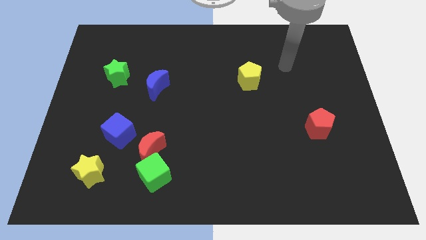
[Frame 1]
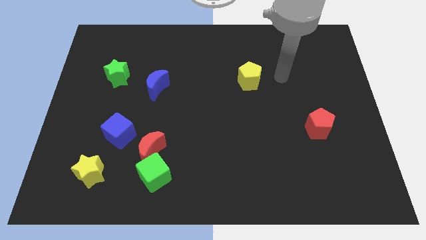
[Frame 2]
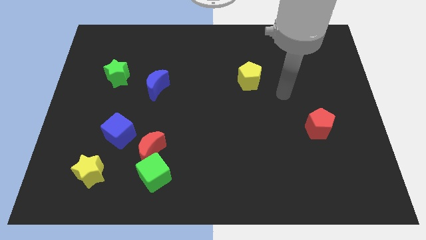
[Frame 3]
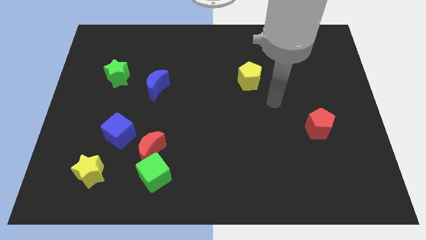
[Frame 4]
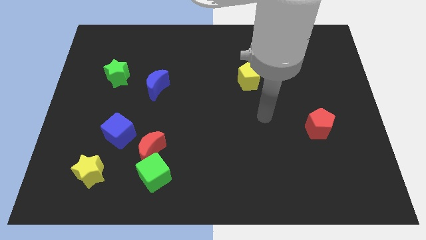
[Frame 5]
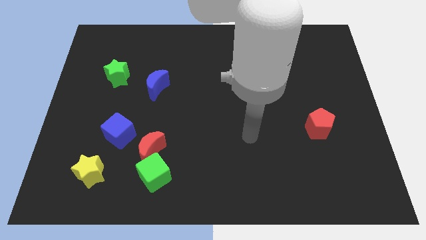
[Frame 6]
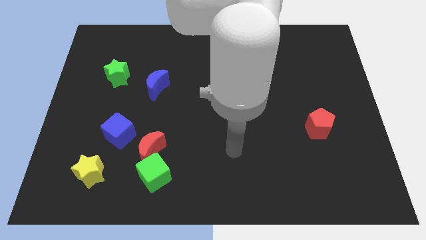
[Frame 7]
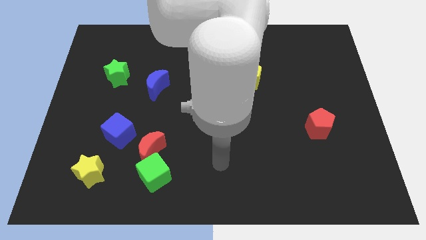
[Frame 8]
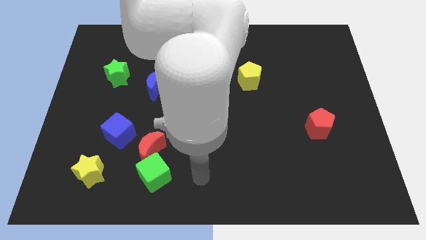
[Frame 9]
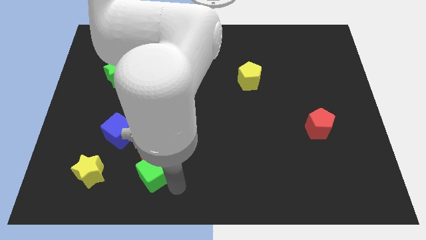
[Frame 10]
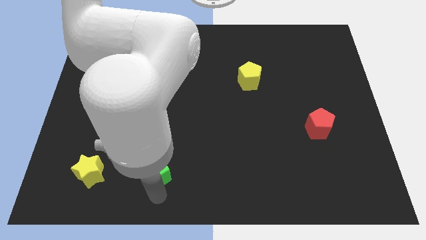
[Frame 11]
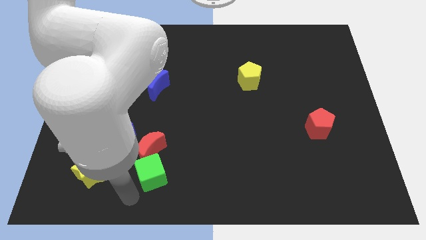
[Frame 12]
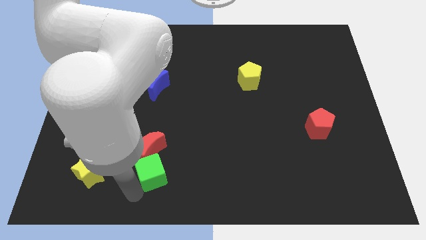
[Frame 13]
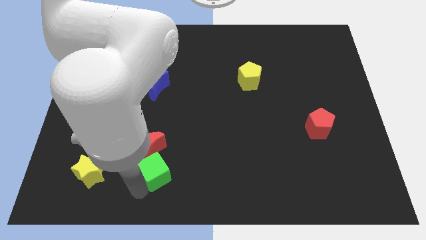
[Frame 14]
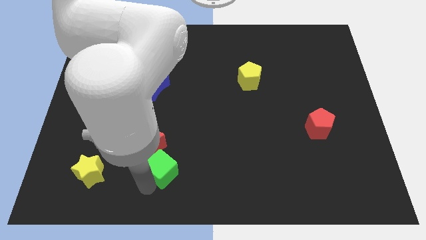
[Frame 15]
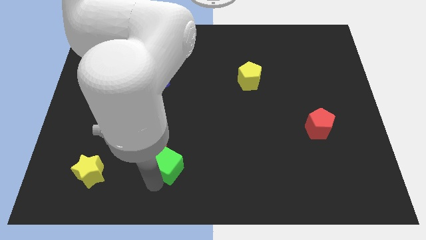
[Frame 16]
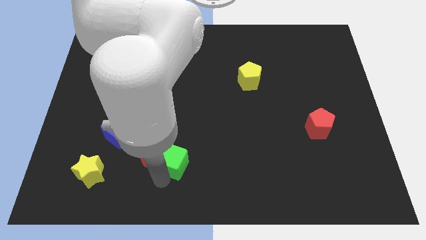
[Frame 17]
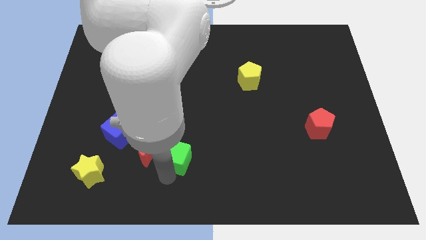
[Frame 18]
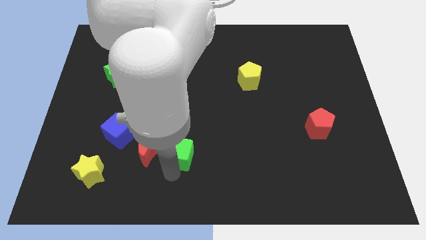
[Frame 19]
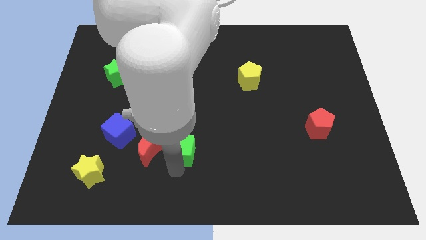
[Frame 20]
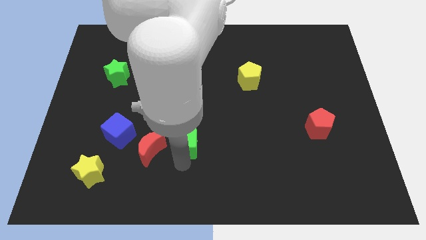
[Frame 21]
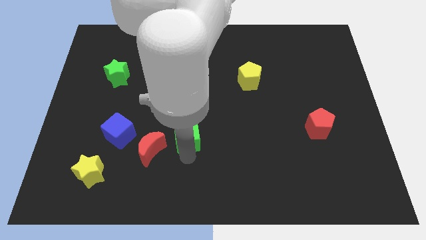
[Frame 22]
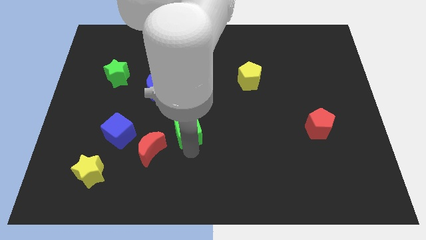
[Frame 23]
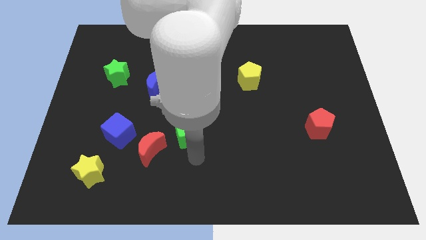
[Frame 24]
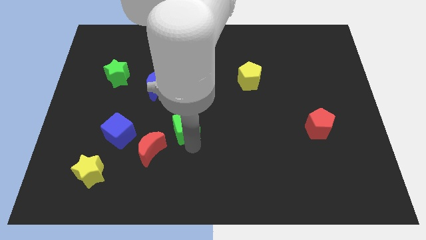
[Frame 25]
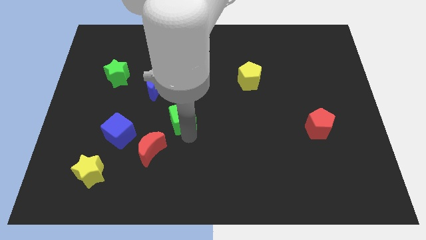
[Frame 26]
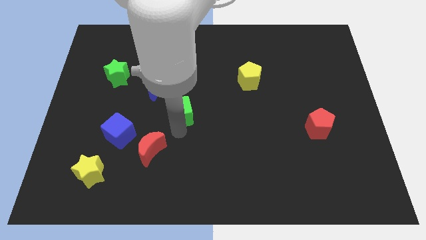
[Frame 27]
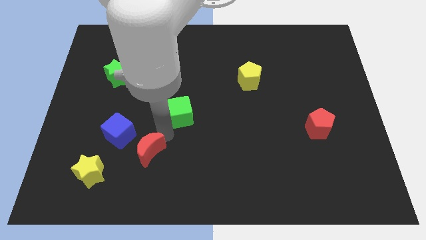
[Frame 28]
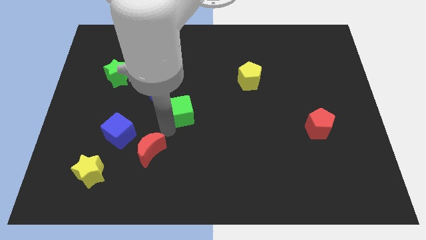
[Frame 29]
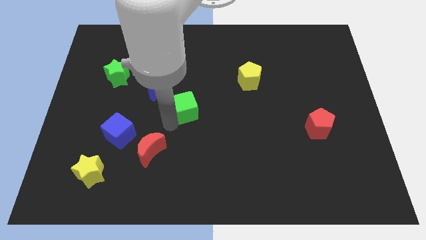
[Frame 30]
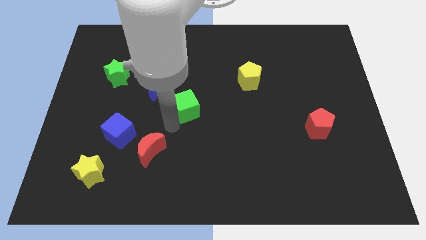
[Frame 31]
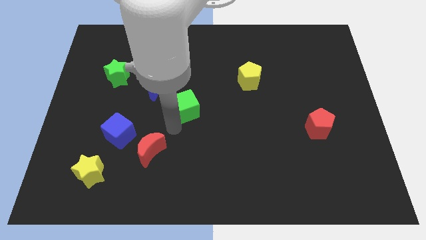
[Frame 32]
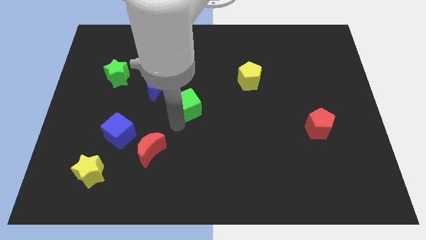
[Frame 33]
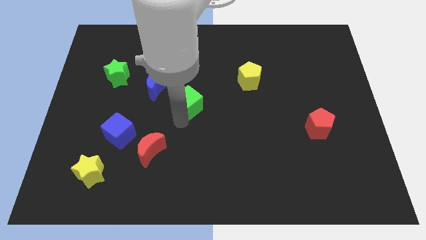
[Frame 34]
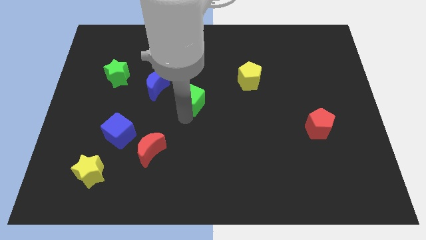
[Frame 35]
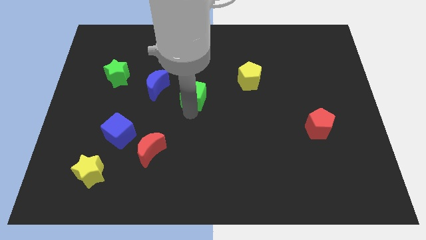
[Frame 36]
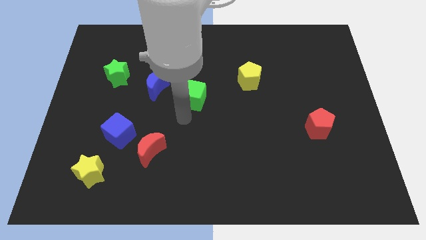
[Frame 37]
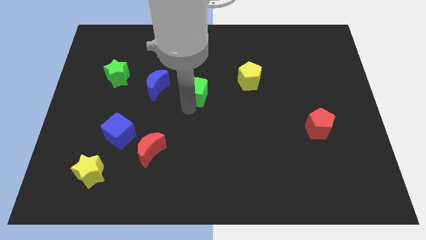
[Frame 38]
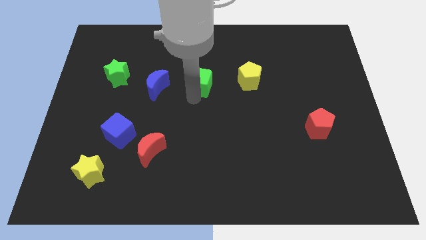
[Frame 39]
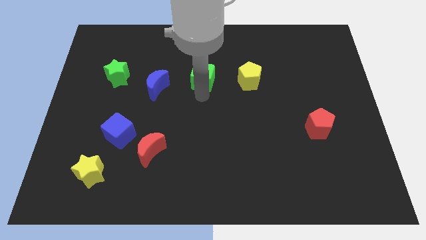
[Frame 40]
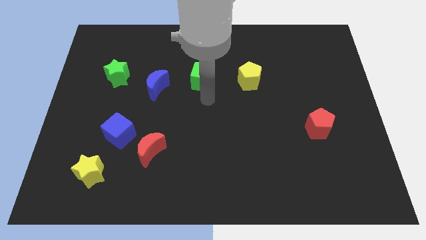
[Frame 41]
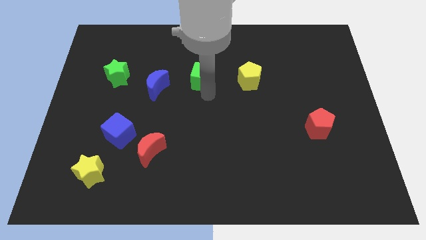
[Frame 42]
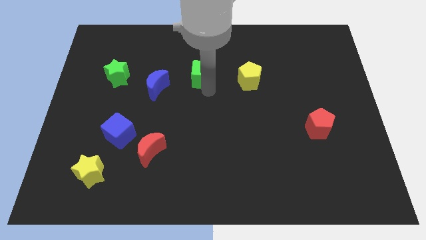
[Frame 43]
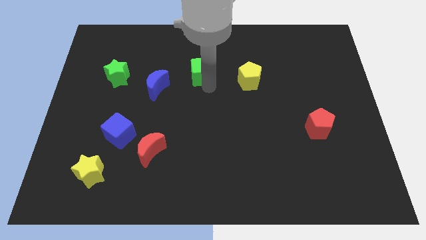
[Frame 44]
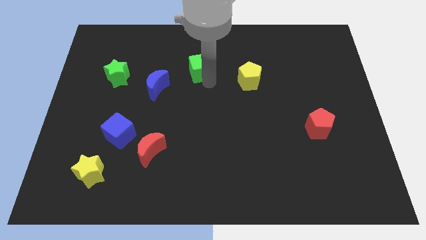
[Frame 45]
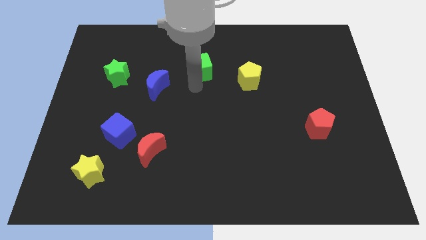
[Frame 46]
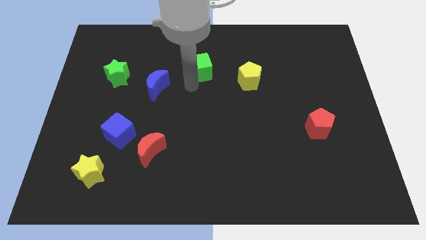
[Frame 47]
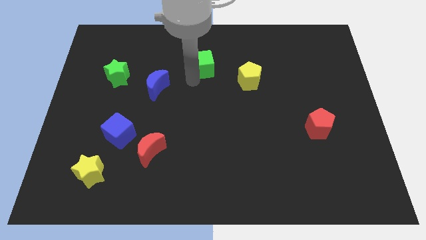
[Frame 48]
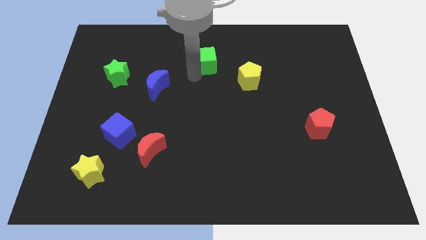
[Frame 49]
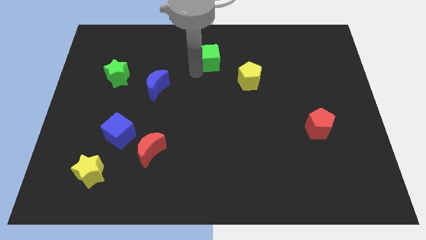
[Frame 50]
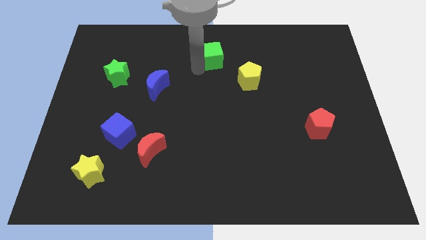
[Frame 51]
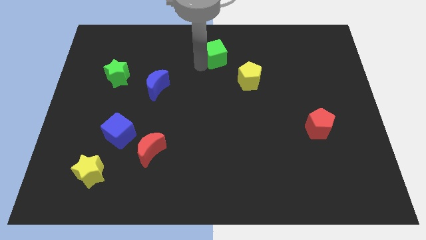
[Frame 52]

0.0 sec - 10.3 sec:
move the green cube to the top side

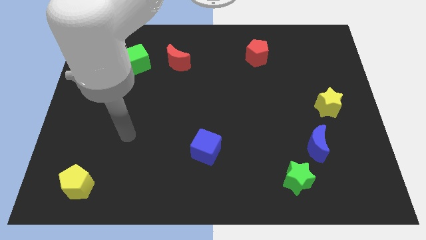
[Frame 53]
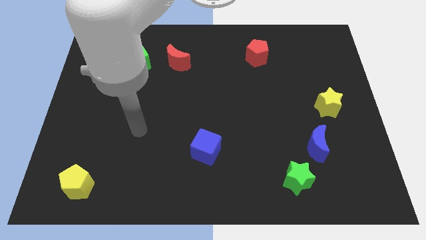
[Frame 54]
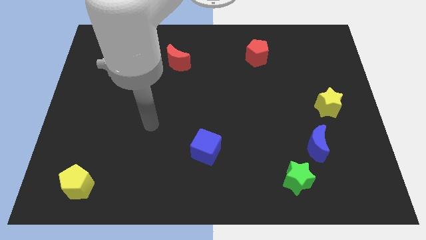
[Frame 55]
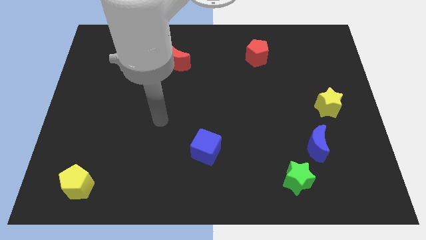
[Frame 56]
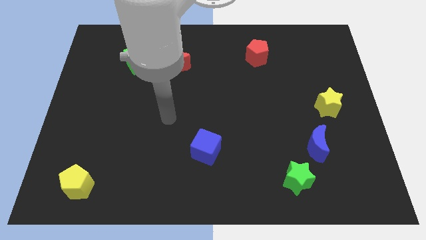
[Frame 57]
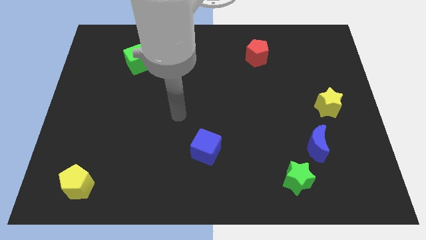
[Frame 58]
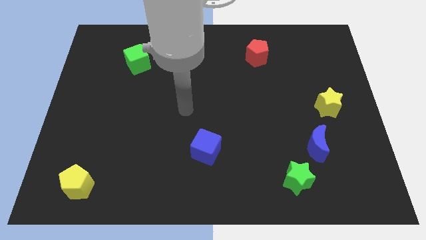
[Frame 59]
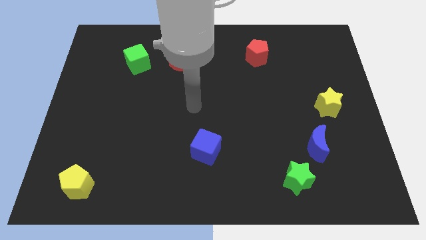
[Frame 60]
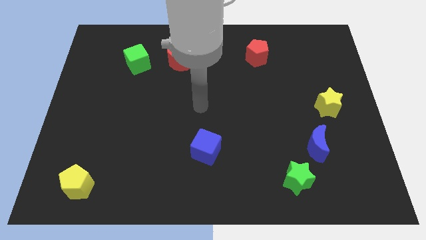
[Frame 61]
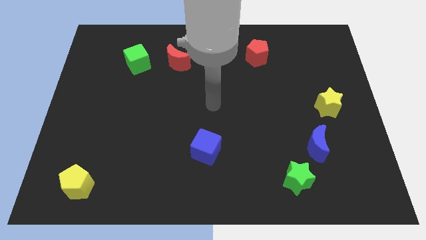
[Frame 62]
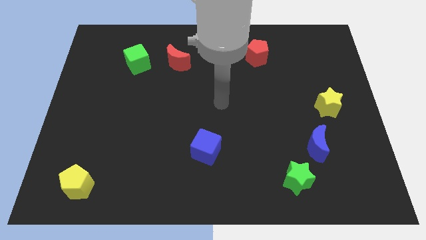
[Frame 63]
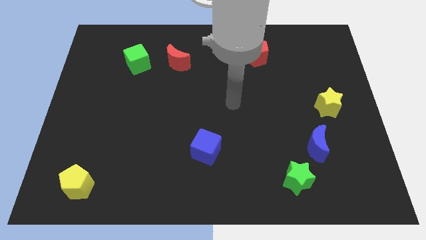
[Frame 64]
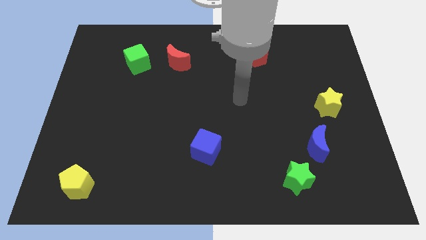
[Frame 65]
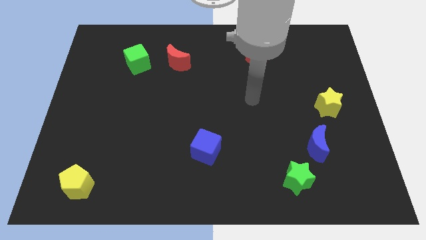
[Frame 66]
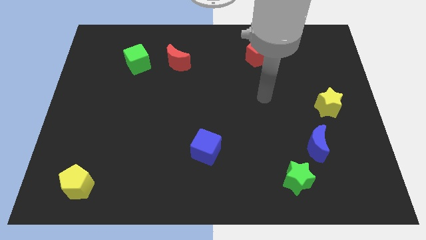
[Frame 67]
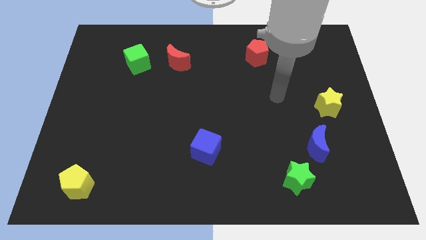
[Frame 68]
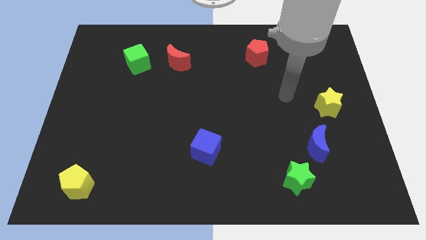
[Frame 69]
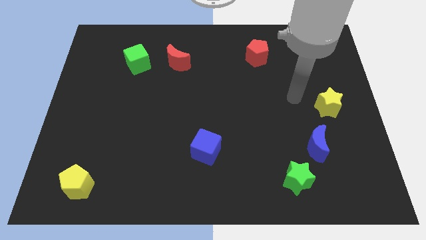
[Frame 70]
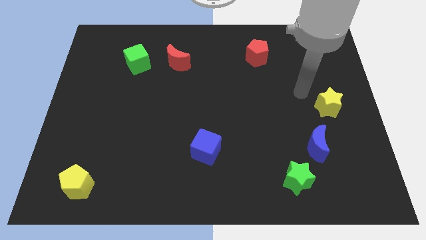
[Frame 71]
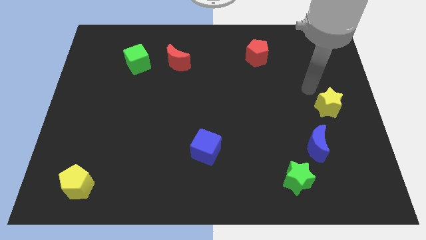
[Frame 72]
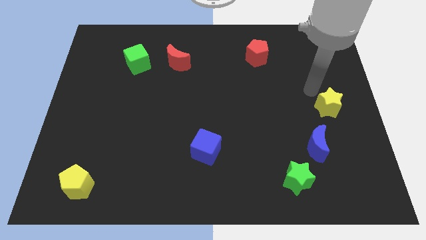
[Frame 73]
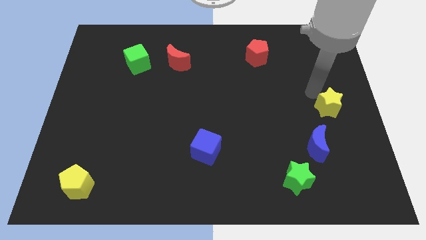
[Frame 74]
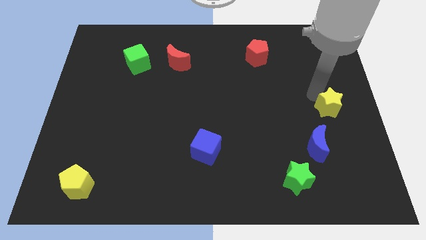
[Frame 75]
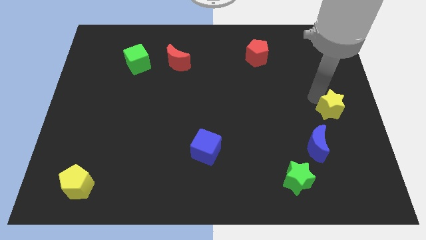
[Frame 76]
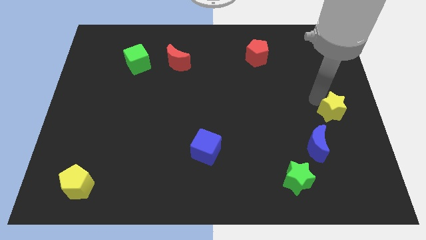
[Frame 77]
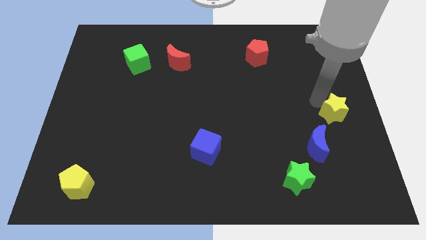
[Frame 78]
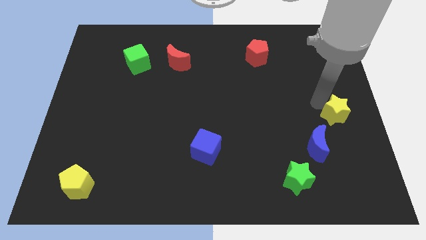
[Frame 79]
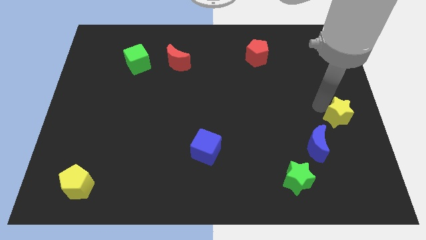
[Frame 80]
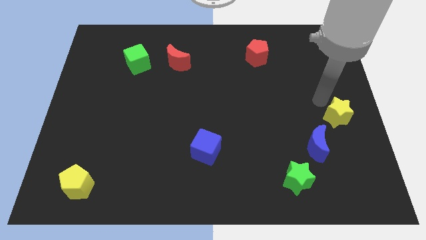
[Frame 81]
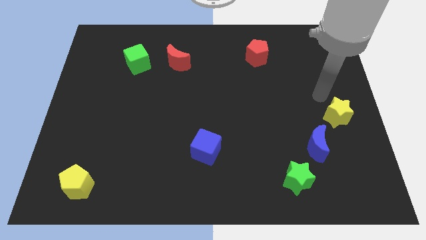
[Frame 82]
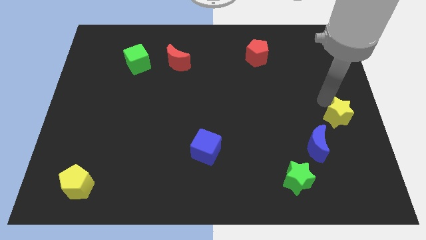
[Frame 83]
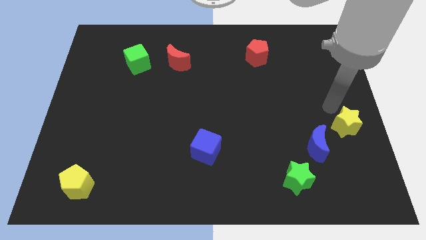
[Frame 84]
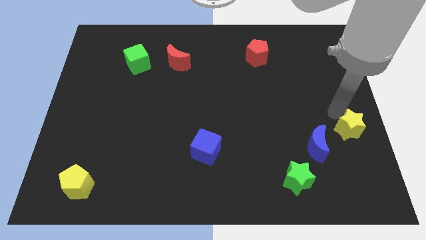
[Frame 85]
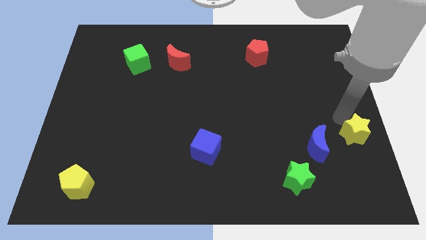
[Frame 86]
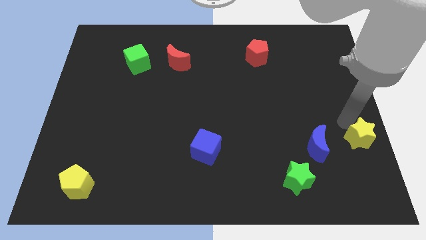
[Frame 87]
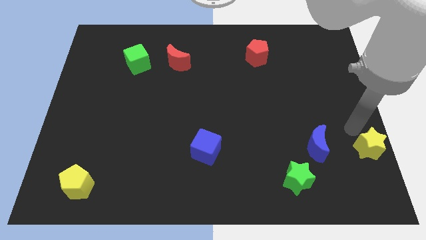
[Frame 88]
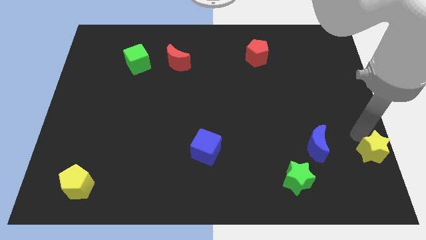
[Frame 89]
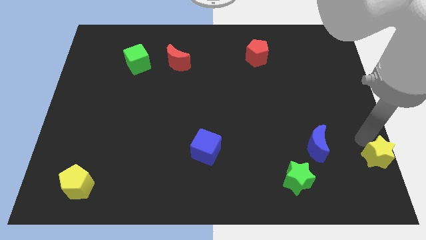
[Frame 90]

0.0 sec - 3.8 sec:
move the yellow star to the bottom right of the board
